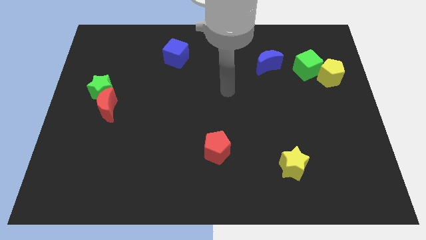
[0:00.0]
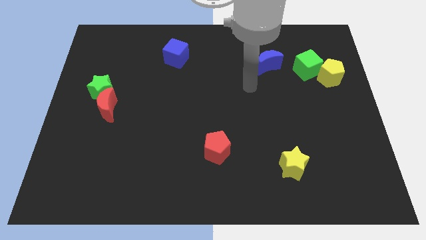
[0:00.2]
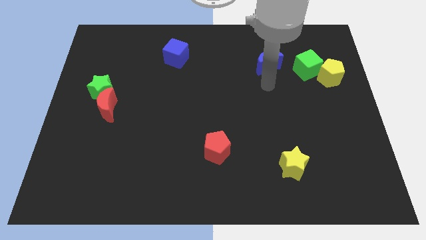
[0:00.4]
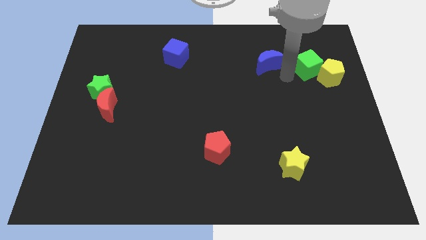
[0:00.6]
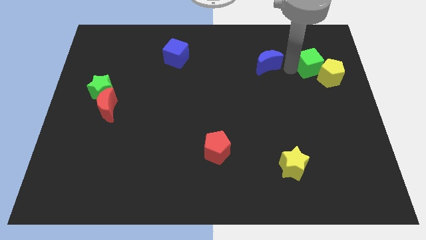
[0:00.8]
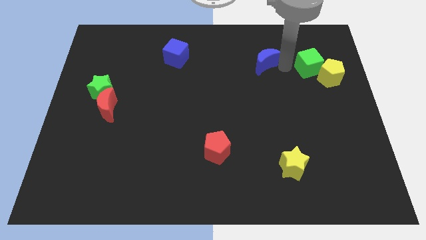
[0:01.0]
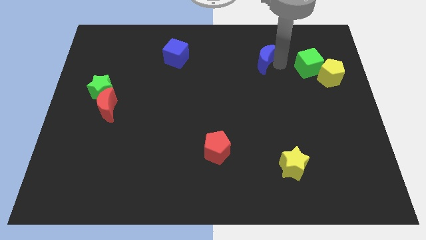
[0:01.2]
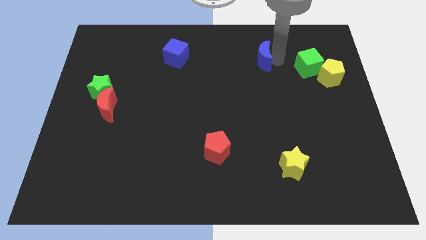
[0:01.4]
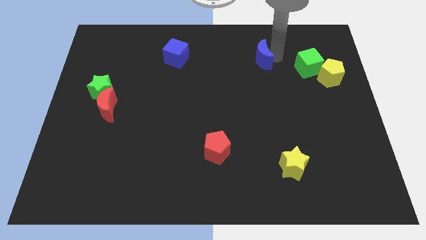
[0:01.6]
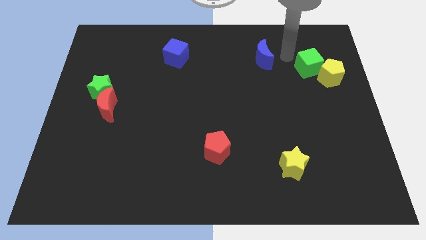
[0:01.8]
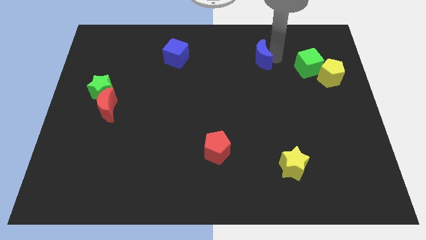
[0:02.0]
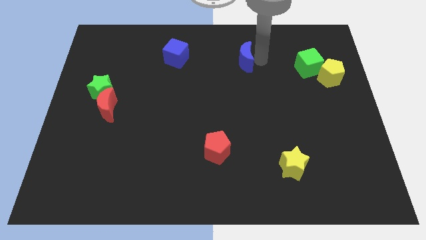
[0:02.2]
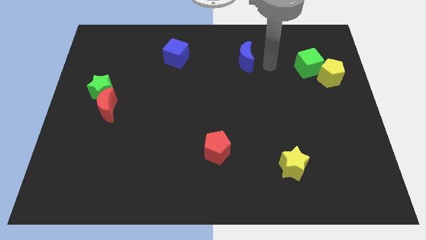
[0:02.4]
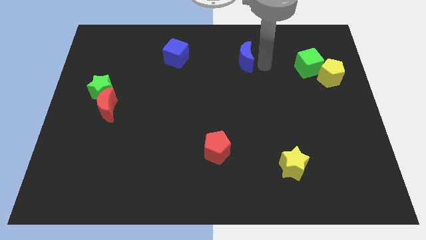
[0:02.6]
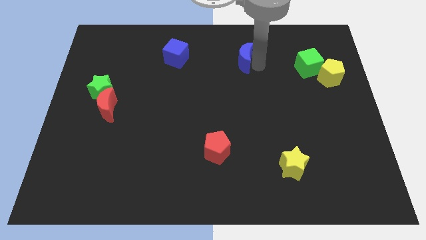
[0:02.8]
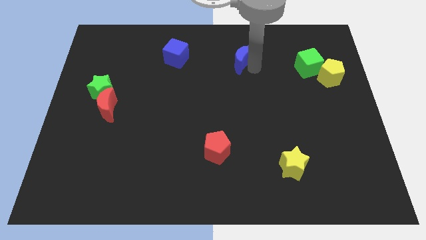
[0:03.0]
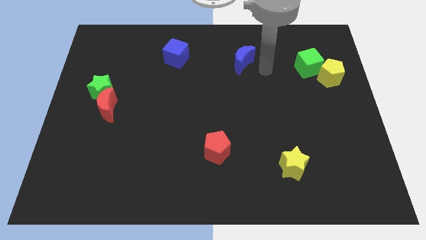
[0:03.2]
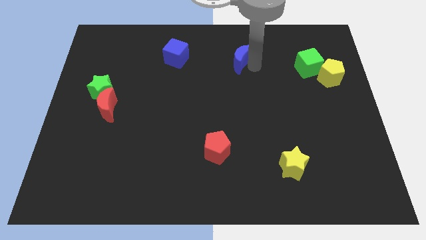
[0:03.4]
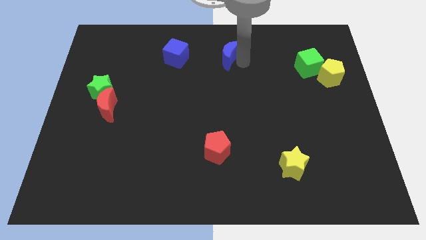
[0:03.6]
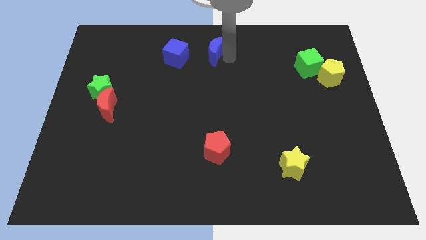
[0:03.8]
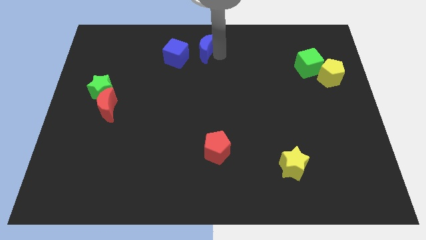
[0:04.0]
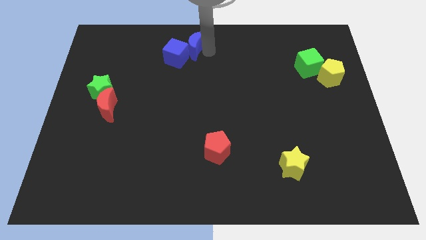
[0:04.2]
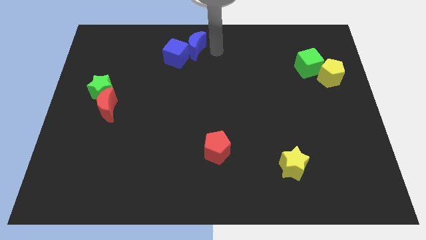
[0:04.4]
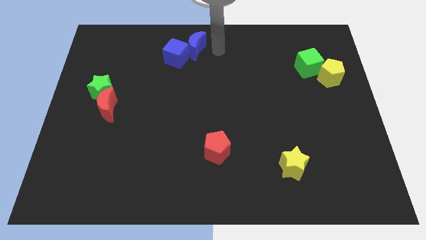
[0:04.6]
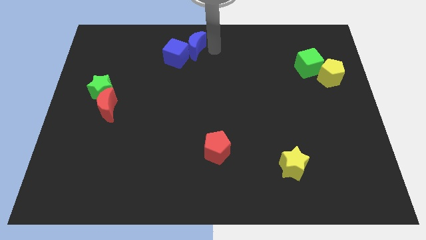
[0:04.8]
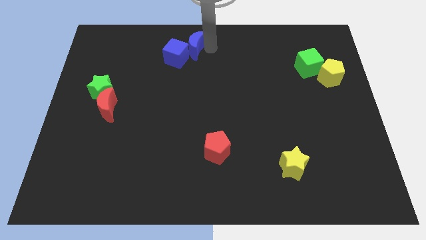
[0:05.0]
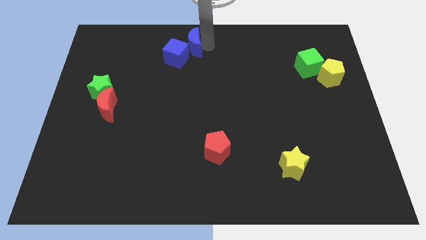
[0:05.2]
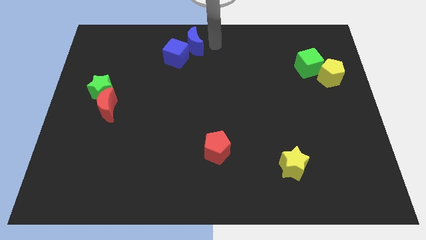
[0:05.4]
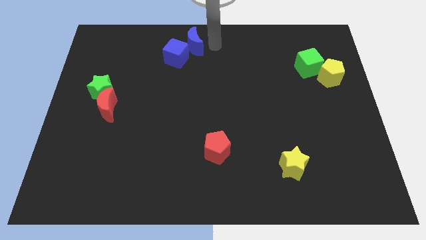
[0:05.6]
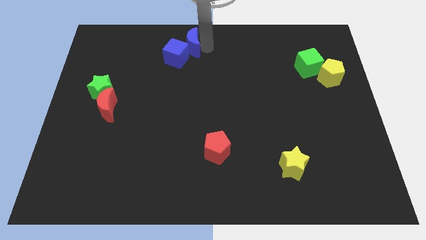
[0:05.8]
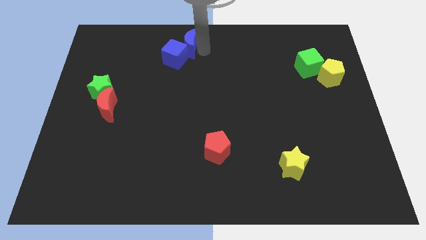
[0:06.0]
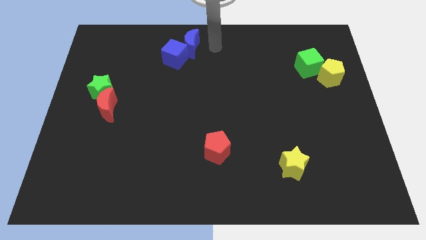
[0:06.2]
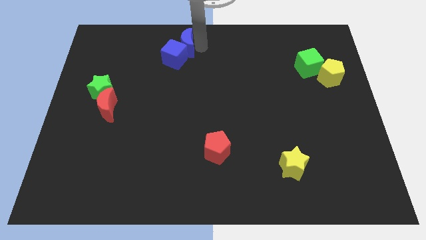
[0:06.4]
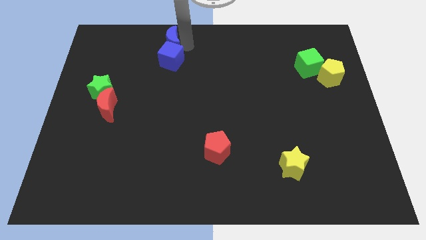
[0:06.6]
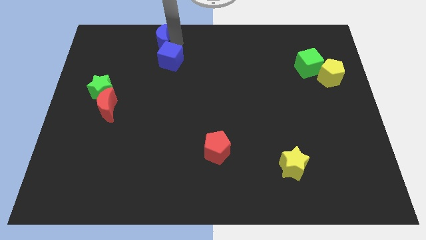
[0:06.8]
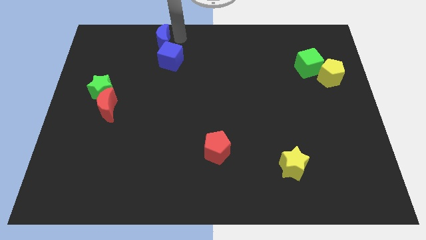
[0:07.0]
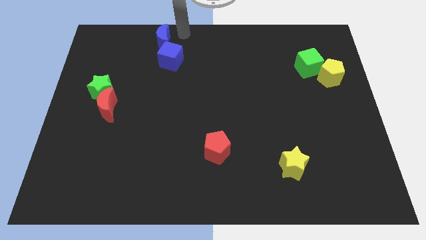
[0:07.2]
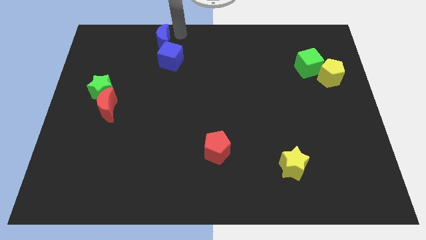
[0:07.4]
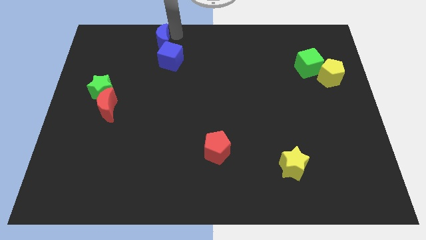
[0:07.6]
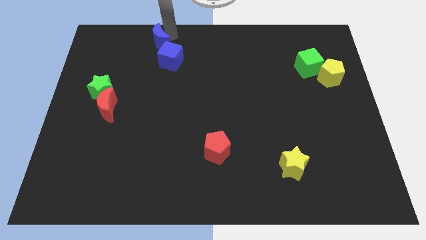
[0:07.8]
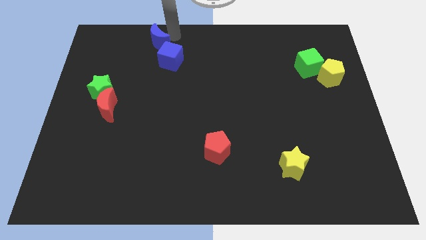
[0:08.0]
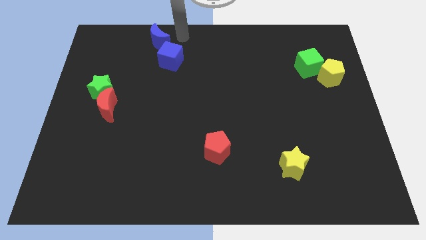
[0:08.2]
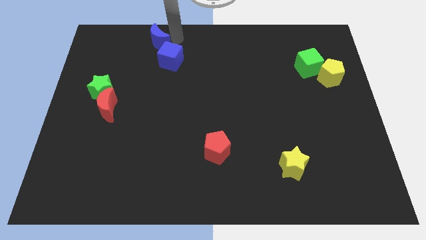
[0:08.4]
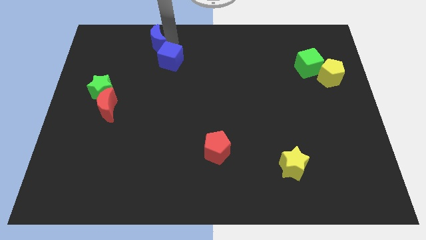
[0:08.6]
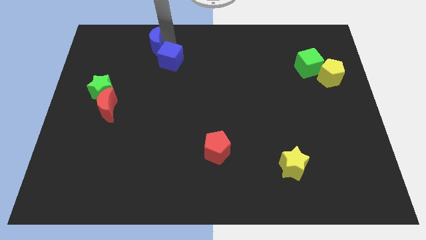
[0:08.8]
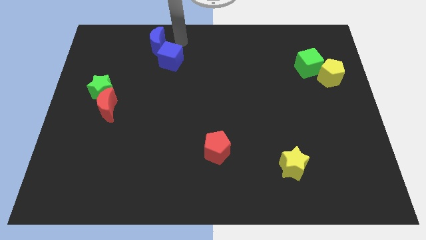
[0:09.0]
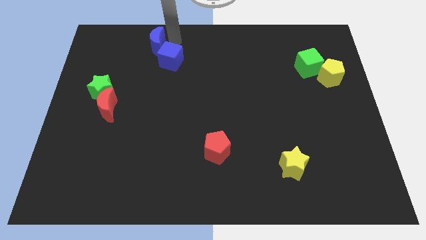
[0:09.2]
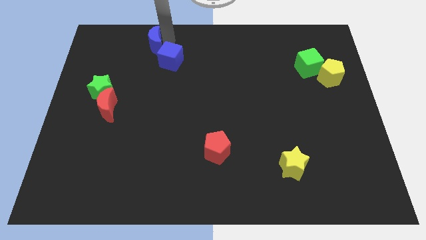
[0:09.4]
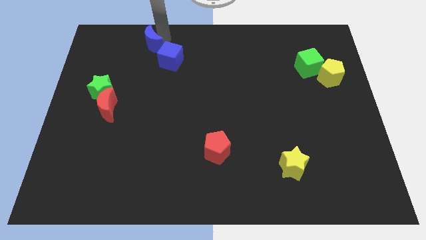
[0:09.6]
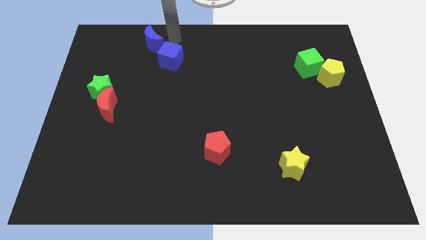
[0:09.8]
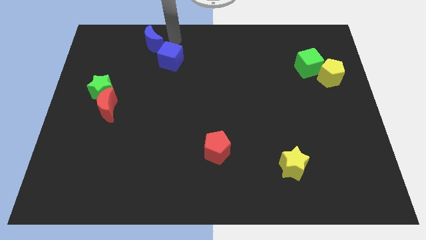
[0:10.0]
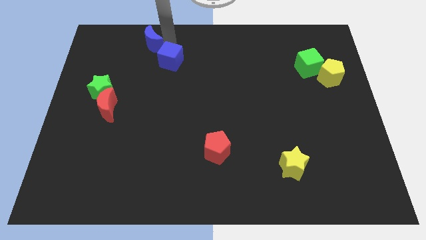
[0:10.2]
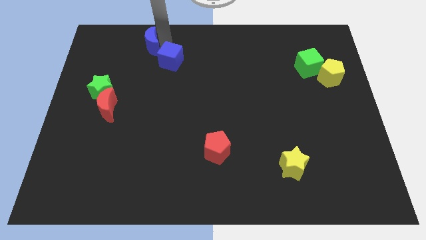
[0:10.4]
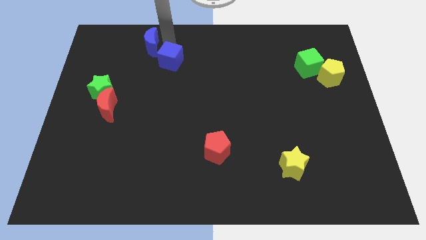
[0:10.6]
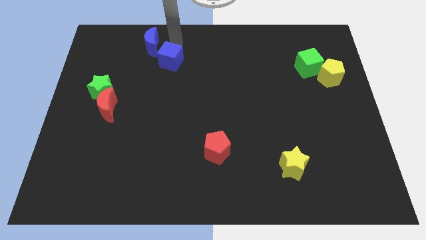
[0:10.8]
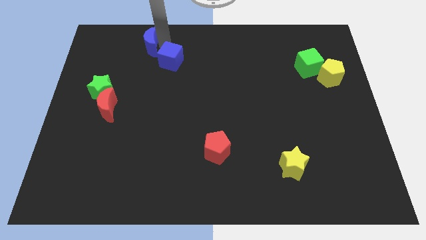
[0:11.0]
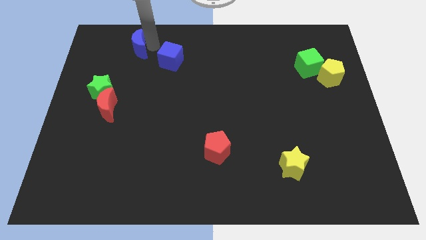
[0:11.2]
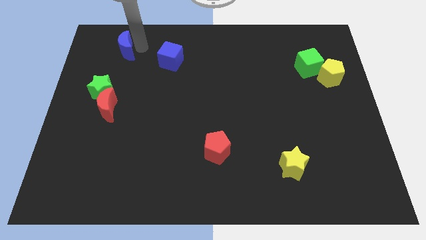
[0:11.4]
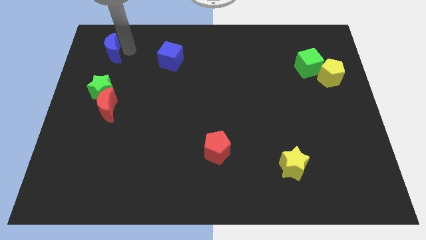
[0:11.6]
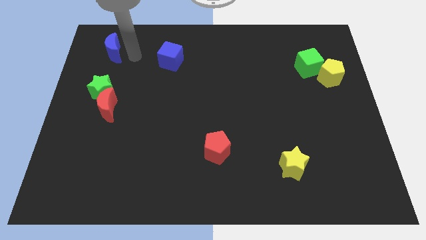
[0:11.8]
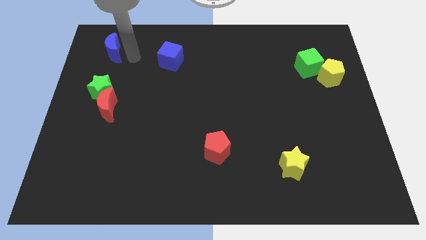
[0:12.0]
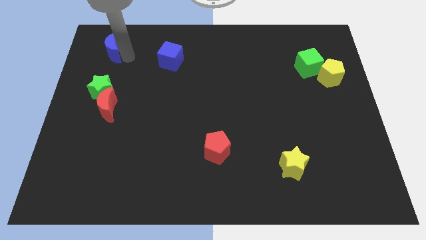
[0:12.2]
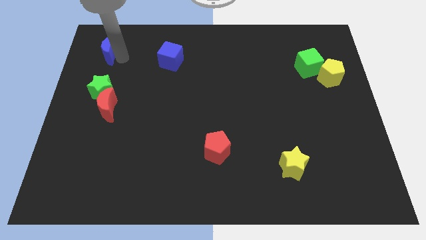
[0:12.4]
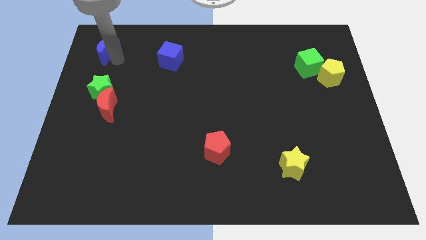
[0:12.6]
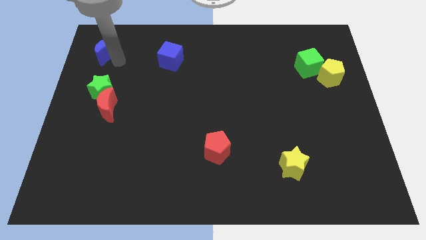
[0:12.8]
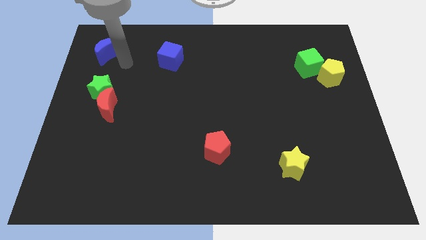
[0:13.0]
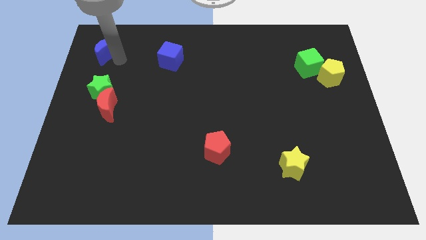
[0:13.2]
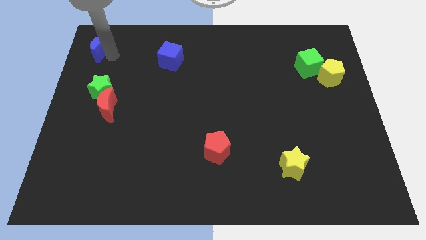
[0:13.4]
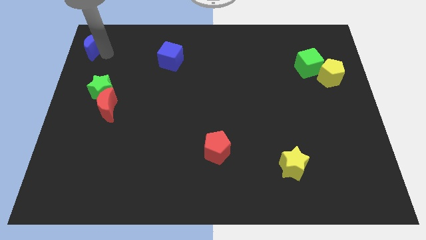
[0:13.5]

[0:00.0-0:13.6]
push the blue moon to the top left

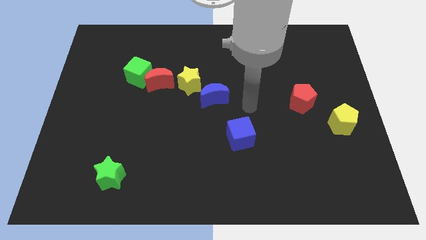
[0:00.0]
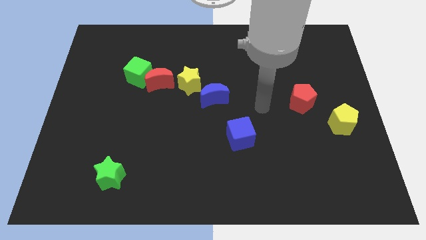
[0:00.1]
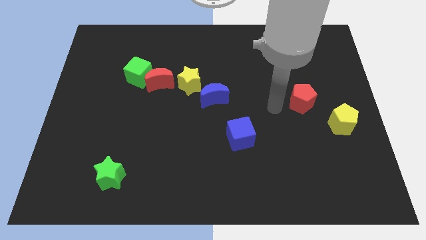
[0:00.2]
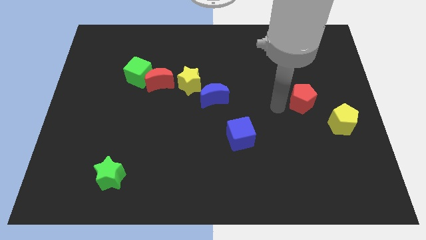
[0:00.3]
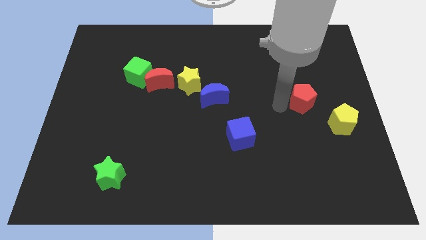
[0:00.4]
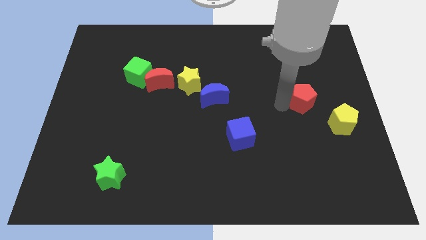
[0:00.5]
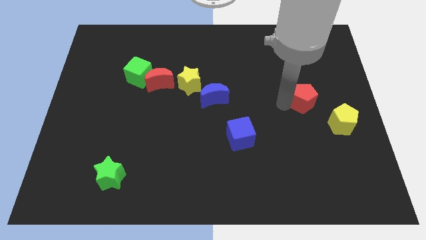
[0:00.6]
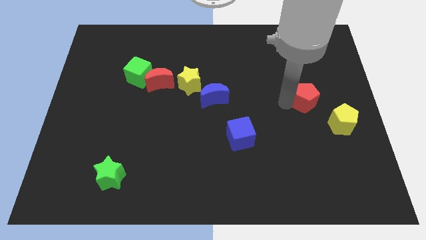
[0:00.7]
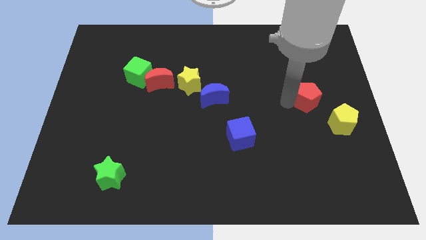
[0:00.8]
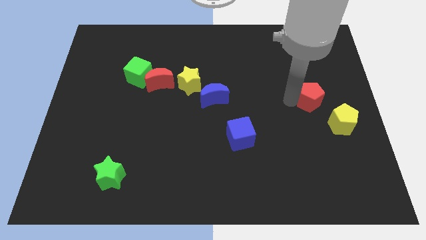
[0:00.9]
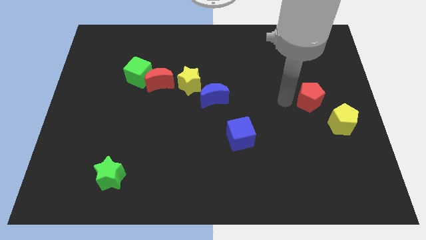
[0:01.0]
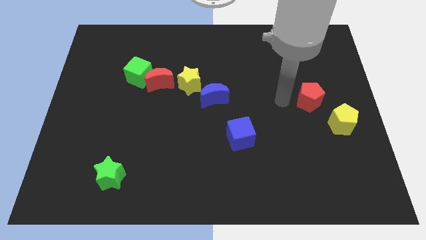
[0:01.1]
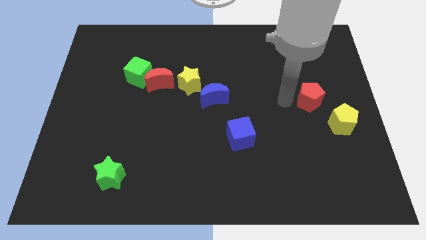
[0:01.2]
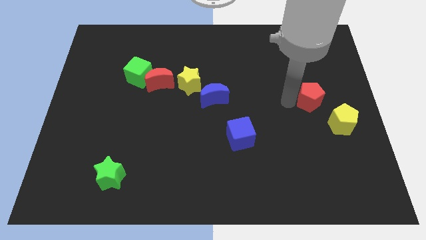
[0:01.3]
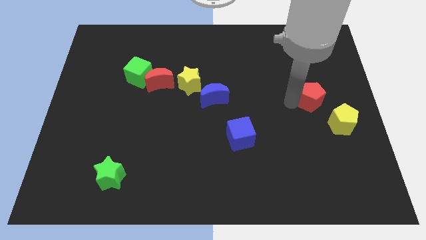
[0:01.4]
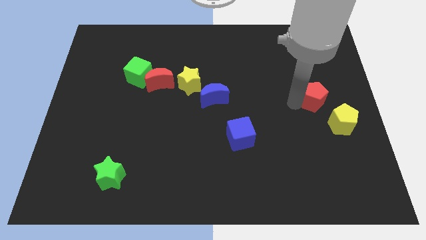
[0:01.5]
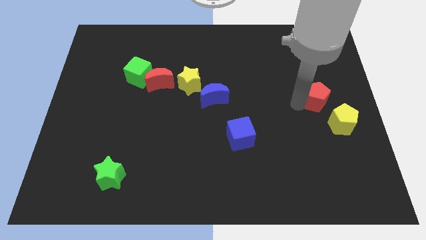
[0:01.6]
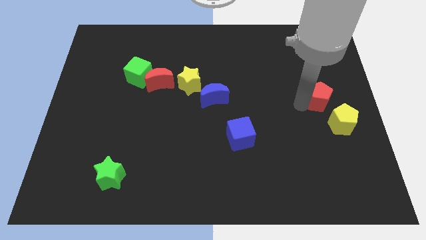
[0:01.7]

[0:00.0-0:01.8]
slide the red pentagon to the right side of the board
